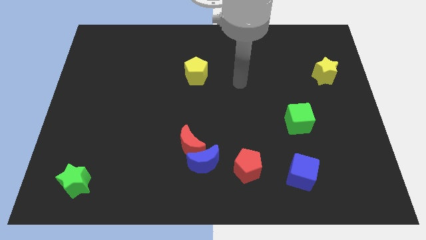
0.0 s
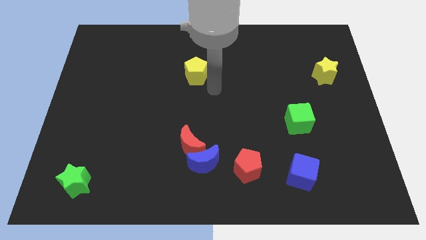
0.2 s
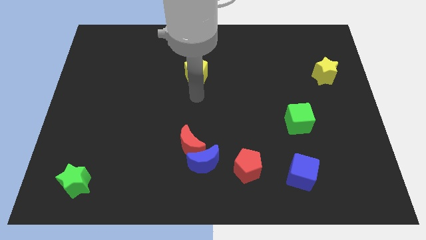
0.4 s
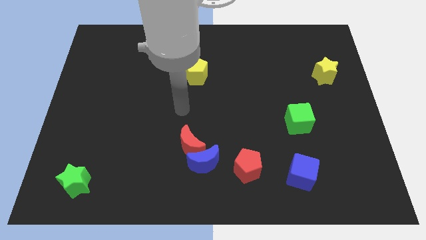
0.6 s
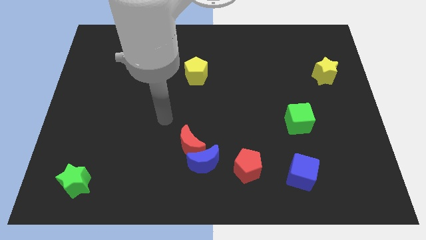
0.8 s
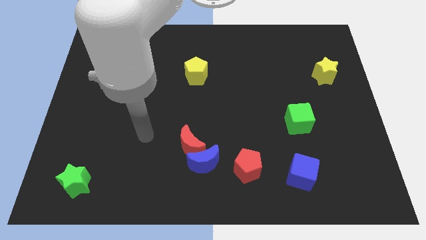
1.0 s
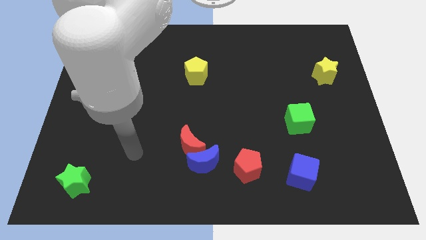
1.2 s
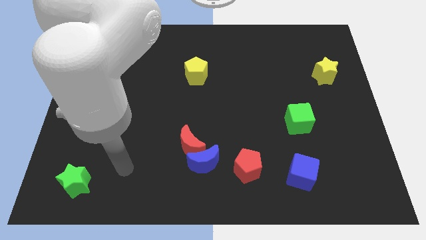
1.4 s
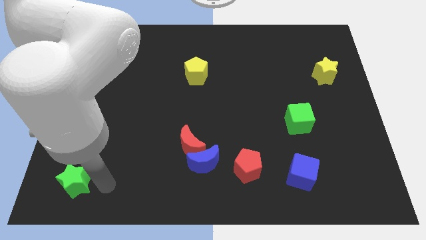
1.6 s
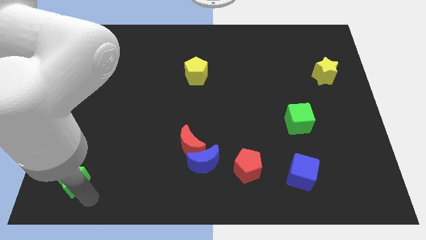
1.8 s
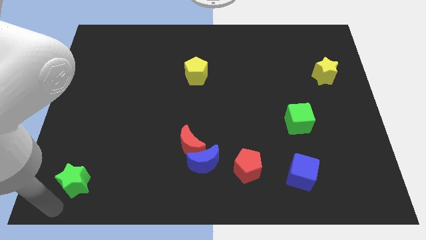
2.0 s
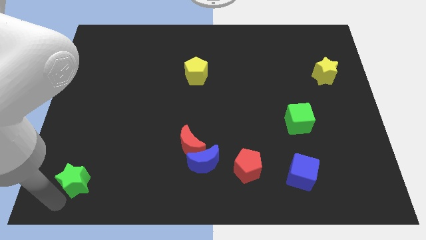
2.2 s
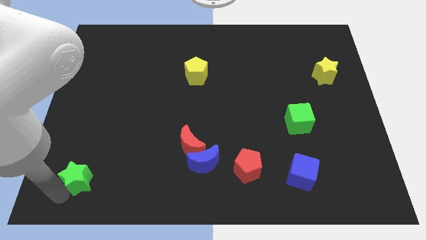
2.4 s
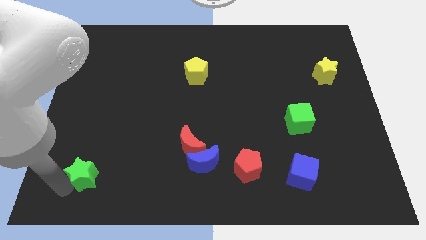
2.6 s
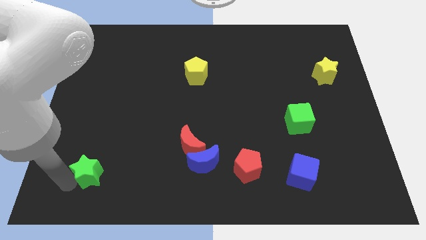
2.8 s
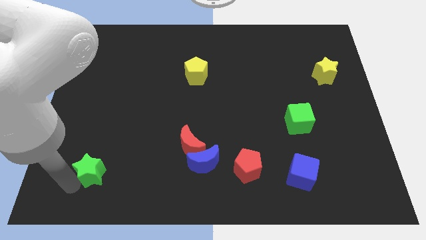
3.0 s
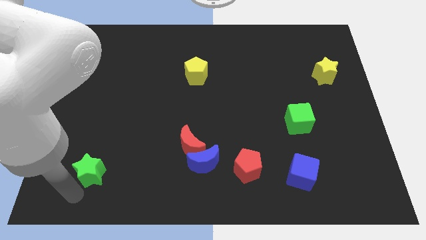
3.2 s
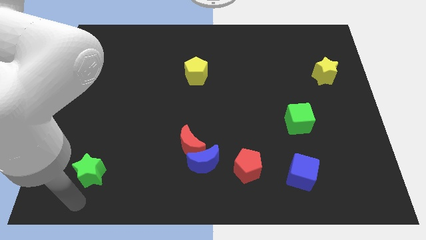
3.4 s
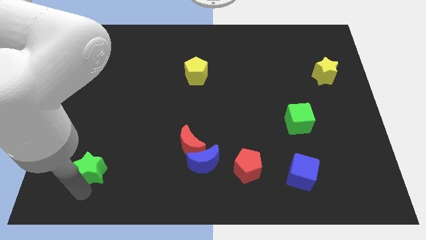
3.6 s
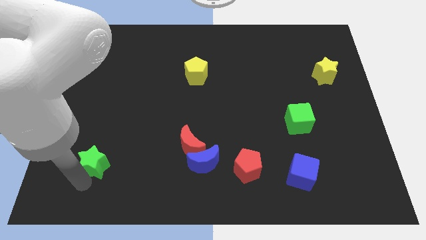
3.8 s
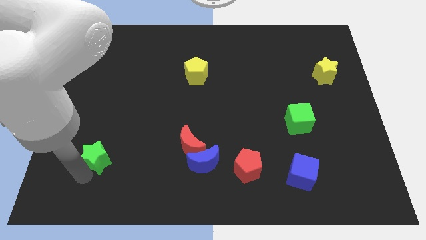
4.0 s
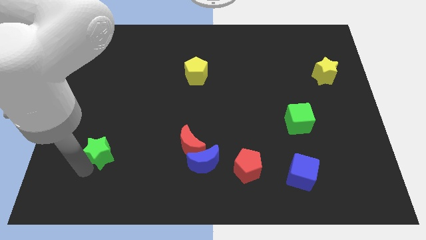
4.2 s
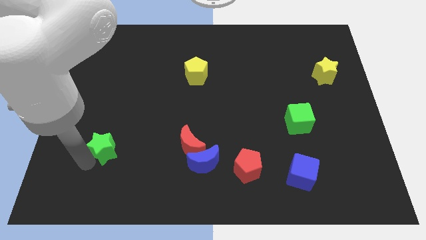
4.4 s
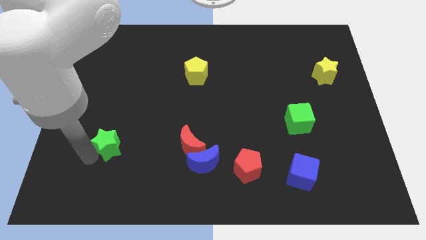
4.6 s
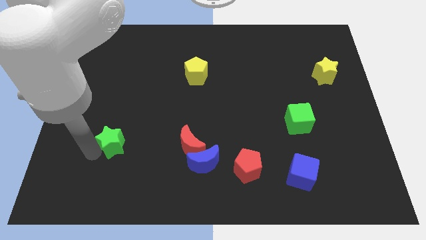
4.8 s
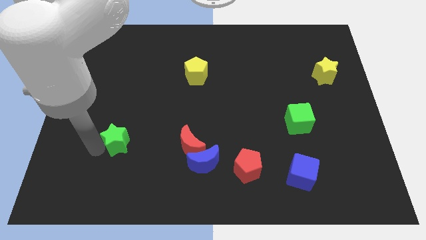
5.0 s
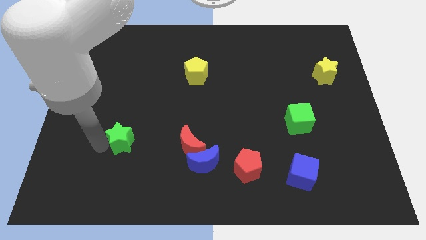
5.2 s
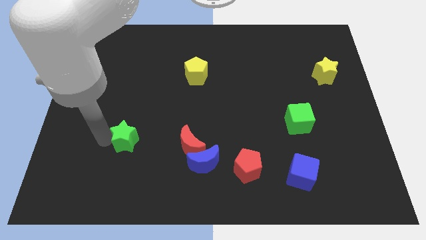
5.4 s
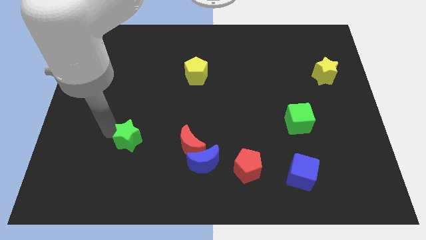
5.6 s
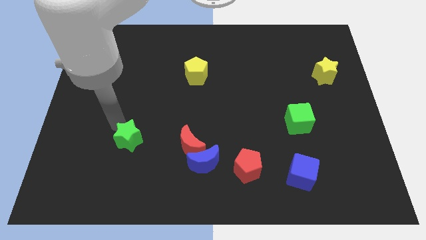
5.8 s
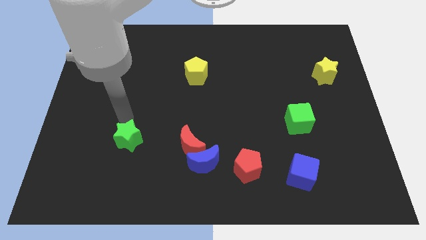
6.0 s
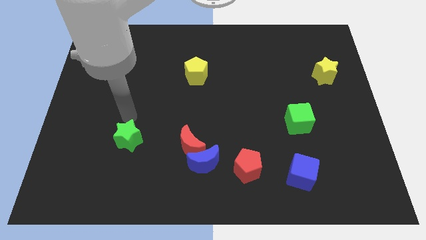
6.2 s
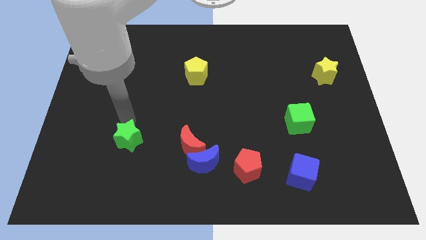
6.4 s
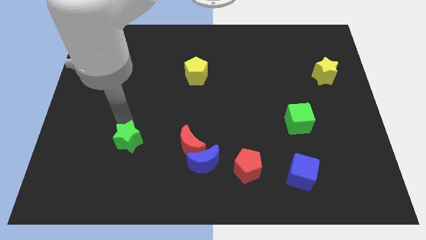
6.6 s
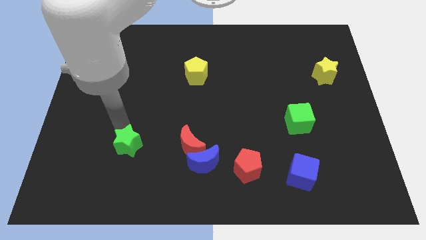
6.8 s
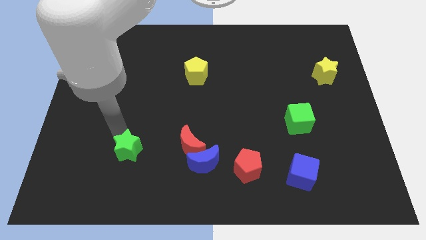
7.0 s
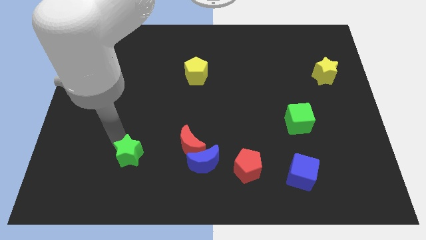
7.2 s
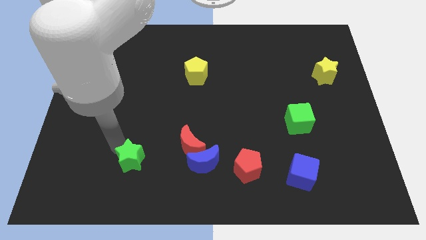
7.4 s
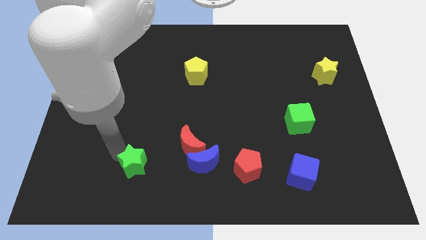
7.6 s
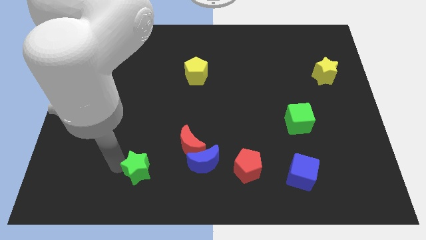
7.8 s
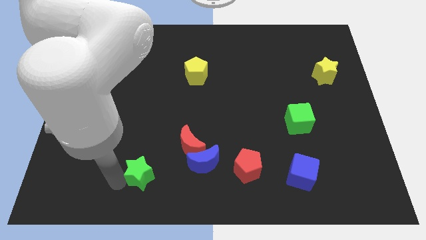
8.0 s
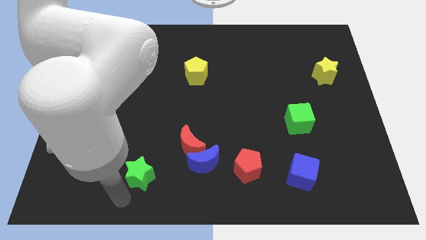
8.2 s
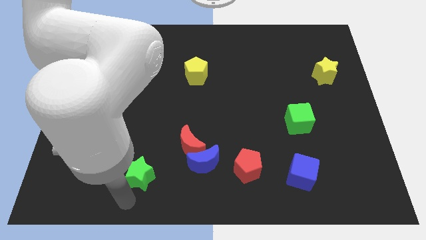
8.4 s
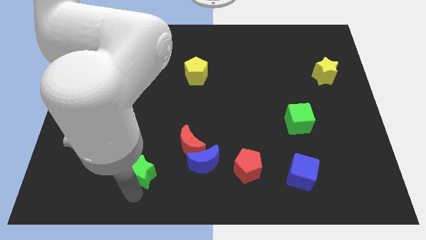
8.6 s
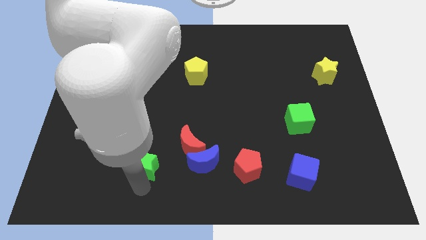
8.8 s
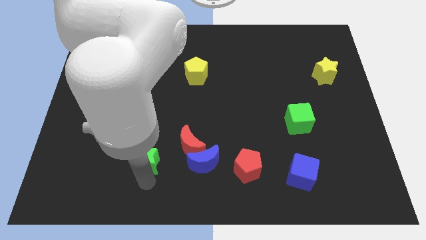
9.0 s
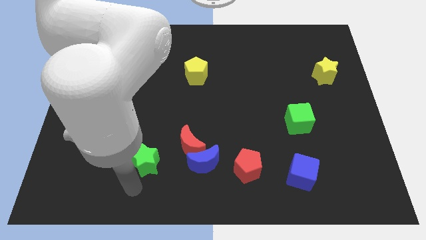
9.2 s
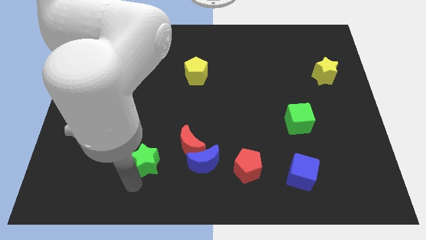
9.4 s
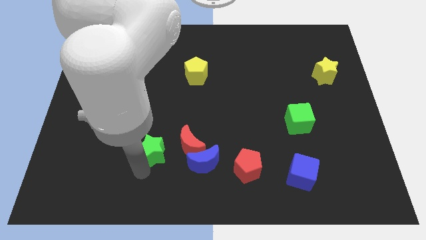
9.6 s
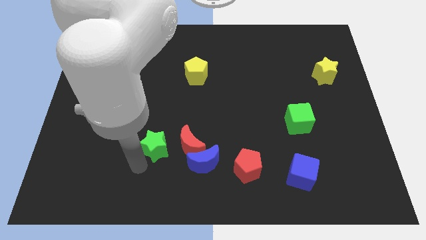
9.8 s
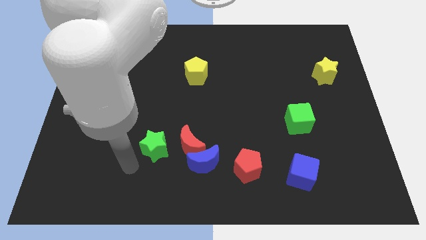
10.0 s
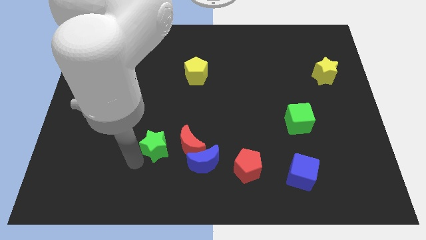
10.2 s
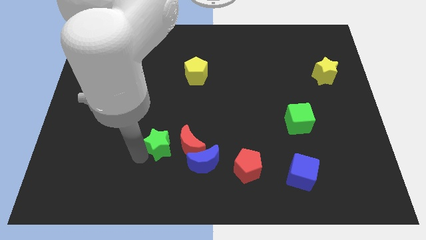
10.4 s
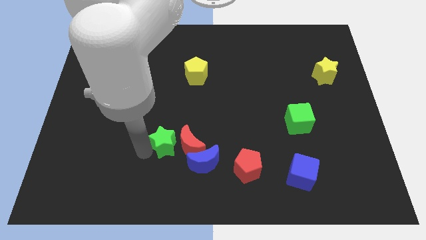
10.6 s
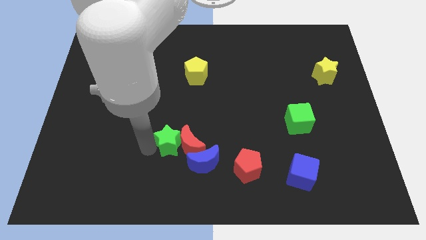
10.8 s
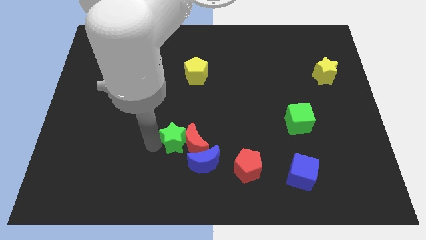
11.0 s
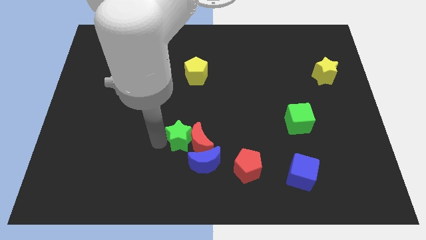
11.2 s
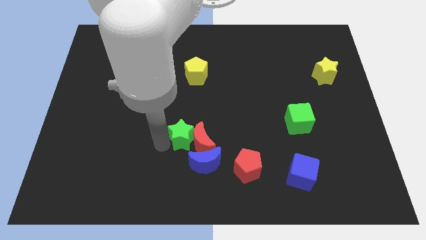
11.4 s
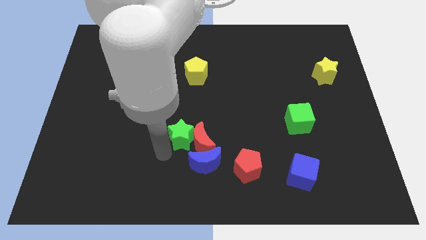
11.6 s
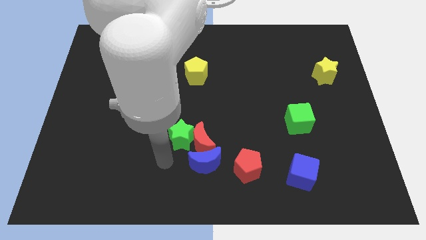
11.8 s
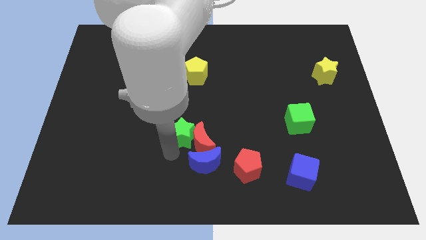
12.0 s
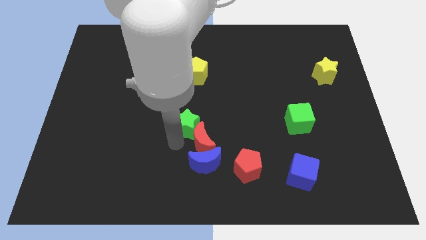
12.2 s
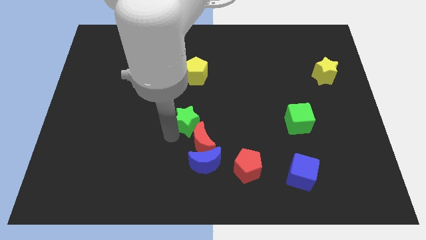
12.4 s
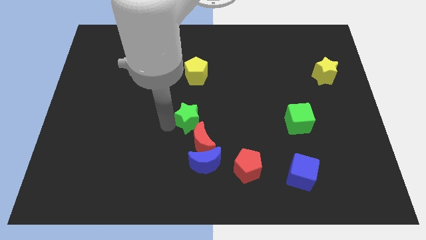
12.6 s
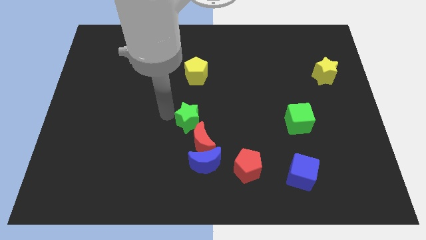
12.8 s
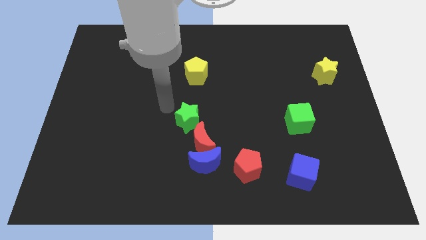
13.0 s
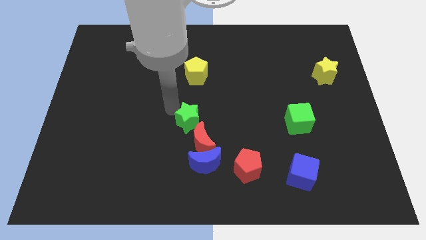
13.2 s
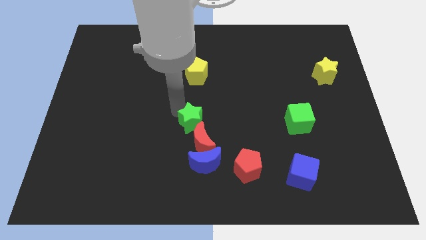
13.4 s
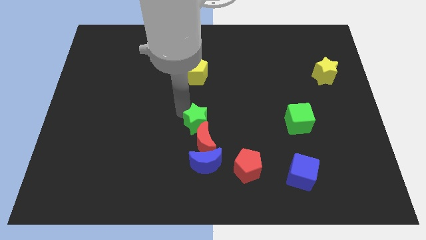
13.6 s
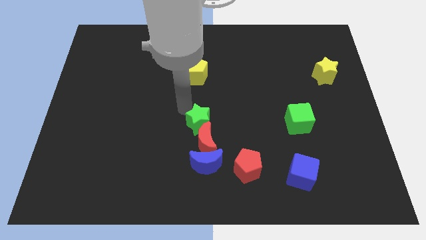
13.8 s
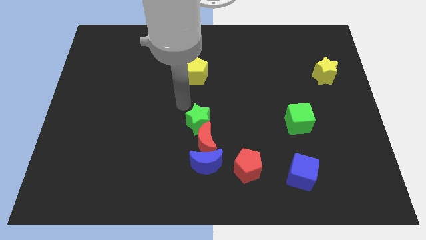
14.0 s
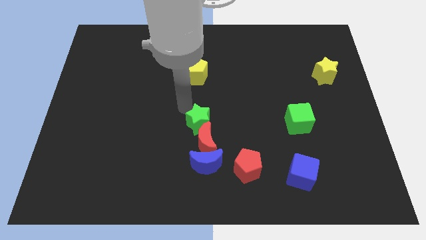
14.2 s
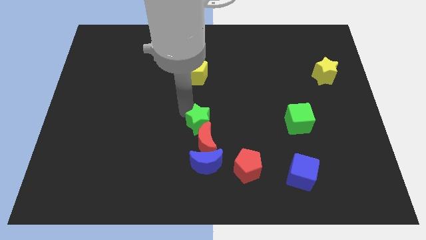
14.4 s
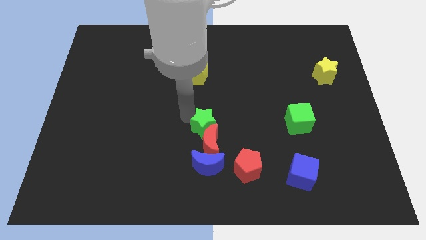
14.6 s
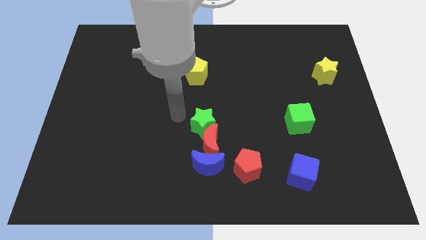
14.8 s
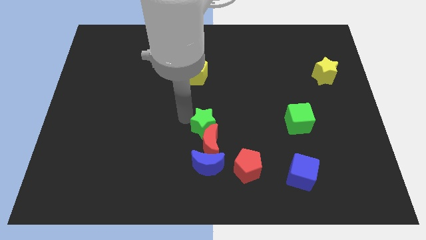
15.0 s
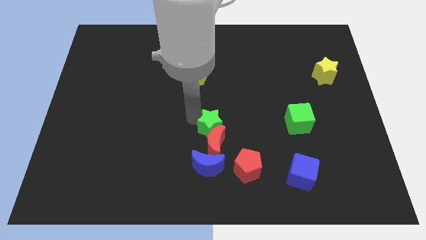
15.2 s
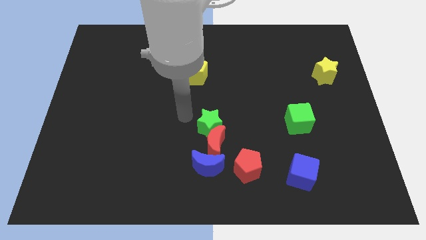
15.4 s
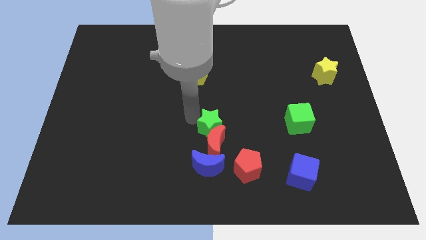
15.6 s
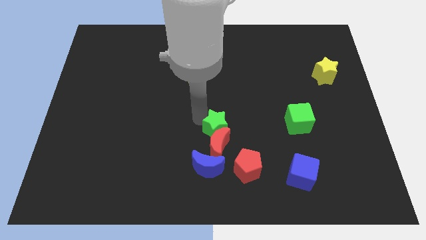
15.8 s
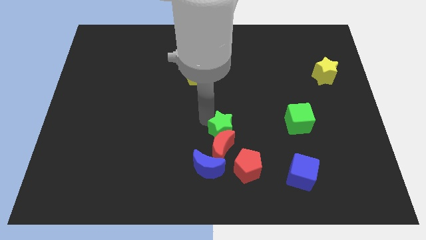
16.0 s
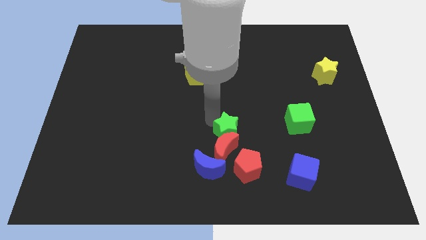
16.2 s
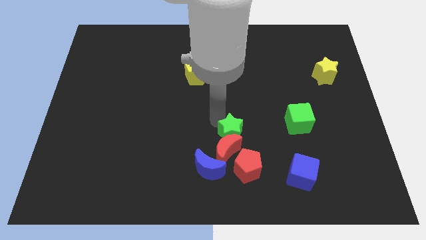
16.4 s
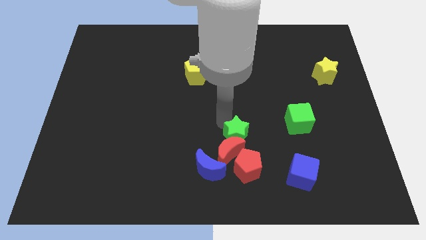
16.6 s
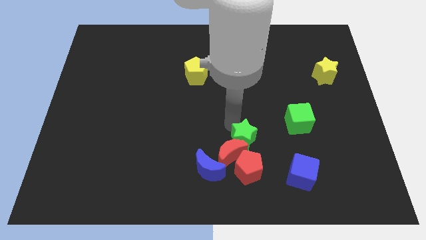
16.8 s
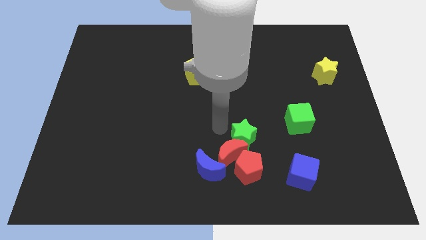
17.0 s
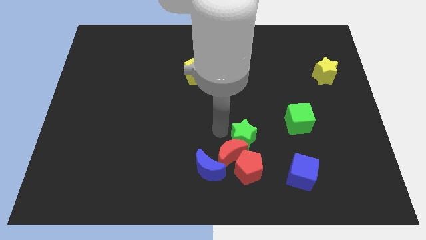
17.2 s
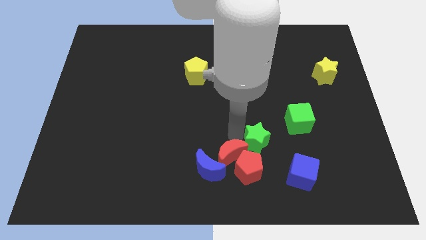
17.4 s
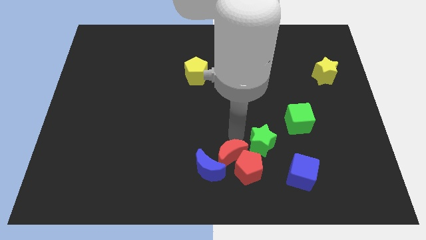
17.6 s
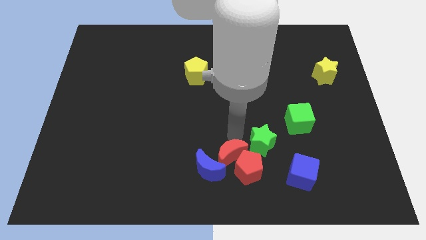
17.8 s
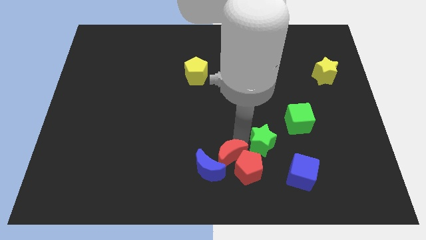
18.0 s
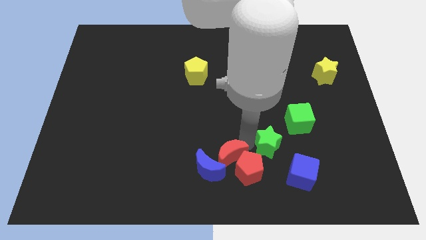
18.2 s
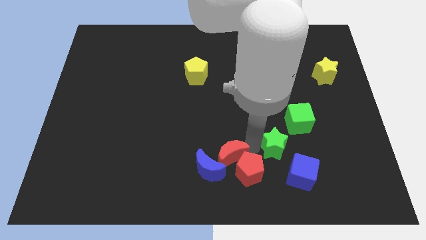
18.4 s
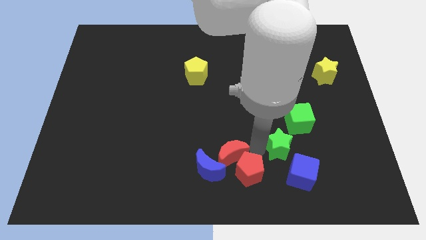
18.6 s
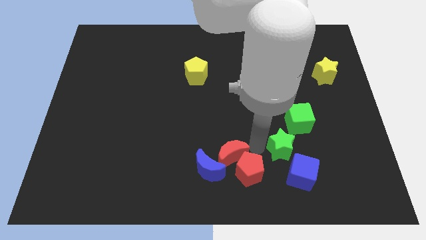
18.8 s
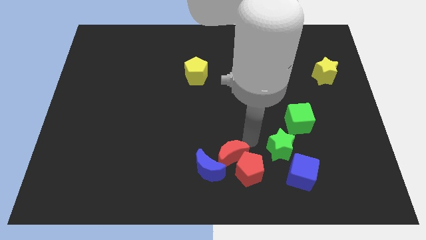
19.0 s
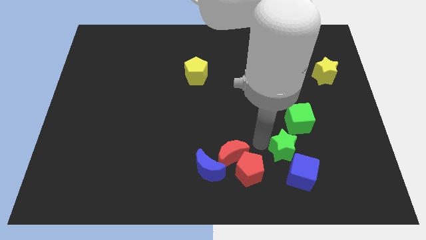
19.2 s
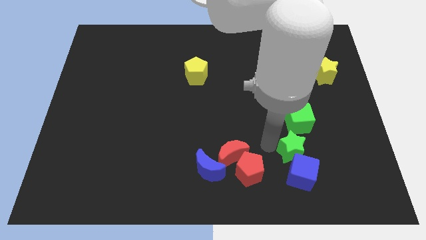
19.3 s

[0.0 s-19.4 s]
move the green star to the right of the red pentagon
